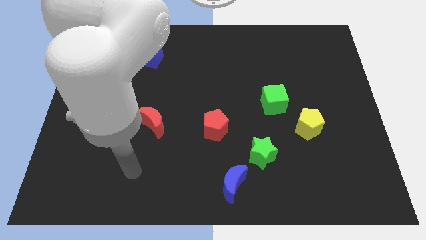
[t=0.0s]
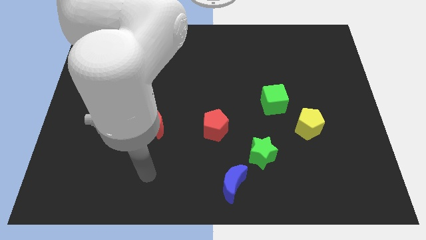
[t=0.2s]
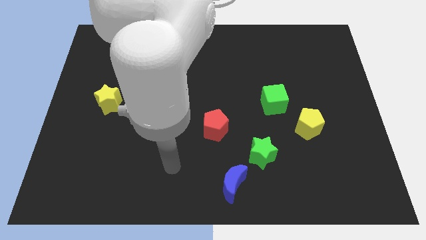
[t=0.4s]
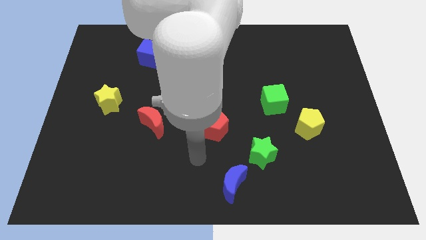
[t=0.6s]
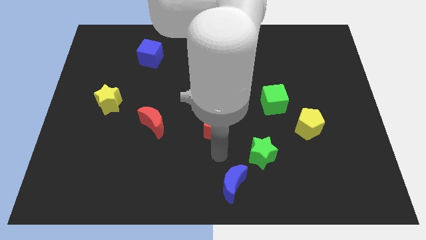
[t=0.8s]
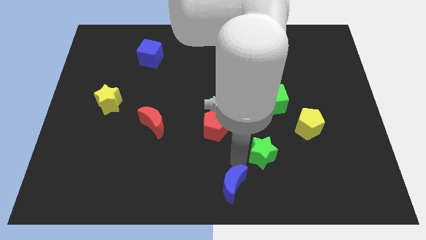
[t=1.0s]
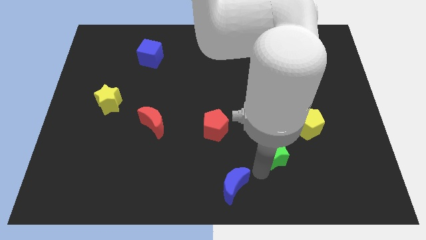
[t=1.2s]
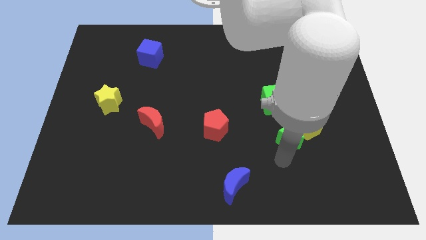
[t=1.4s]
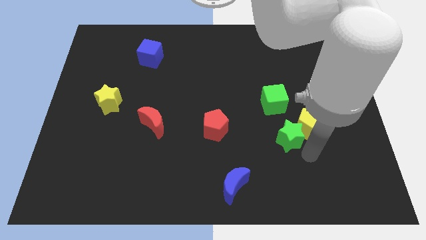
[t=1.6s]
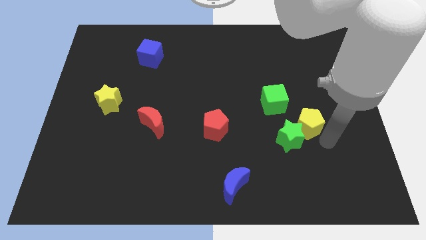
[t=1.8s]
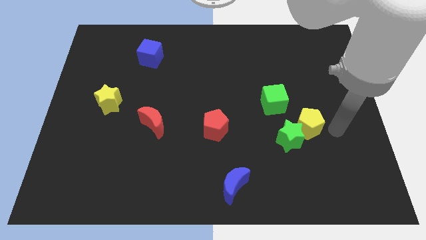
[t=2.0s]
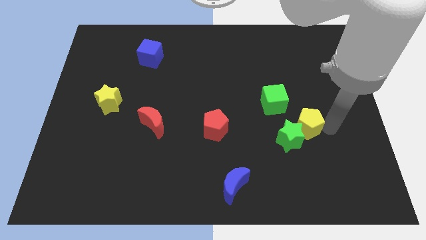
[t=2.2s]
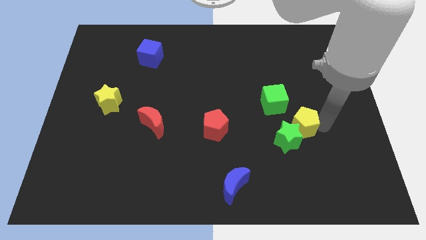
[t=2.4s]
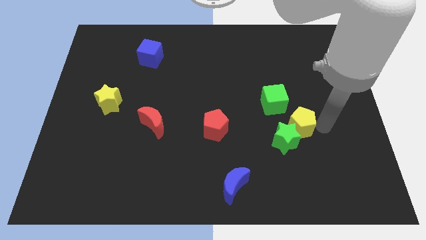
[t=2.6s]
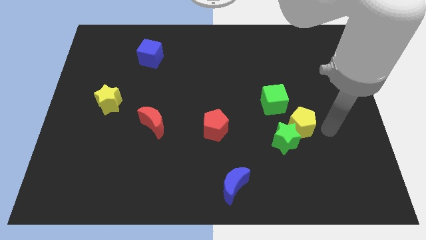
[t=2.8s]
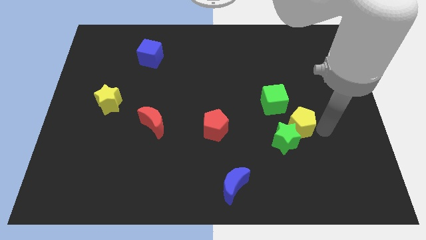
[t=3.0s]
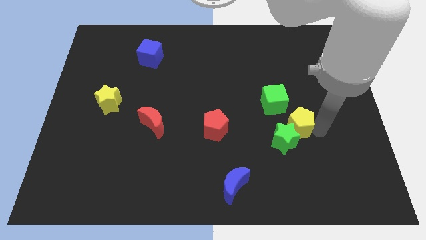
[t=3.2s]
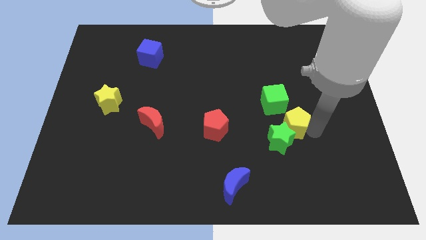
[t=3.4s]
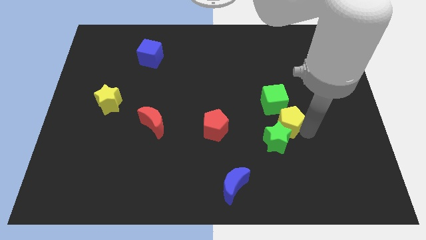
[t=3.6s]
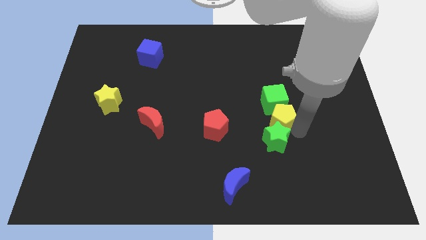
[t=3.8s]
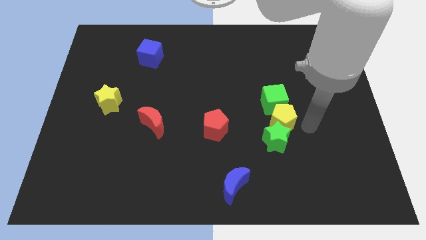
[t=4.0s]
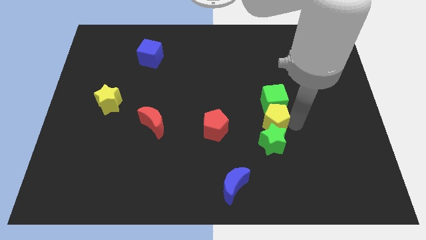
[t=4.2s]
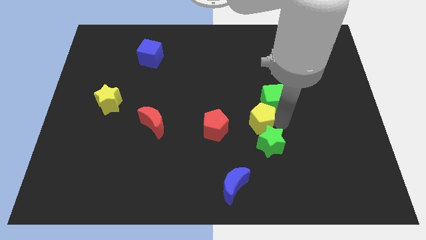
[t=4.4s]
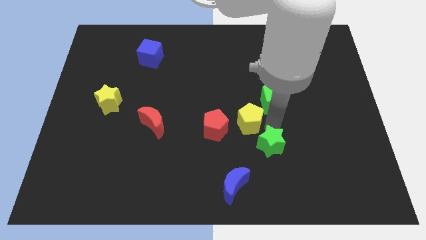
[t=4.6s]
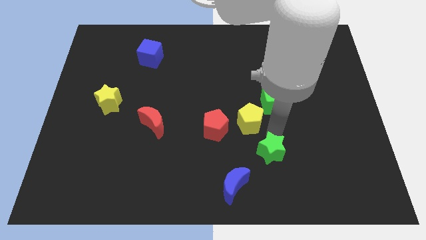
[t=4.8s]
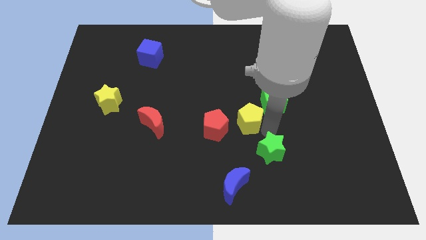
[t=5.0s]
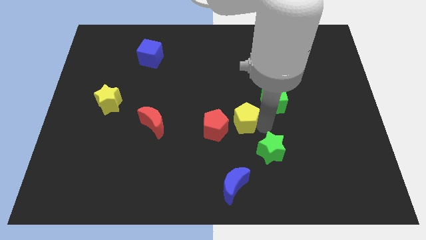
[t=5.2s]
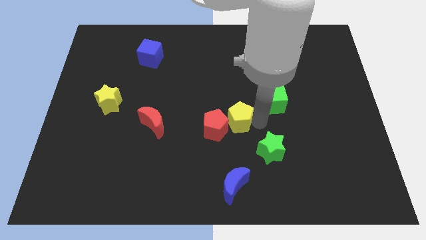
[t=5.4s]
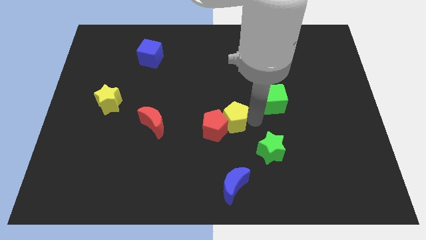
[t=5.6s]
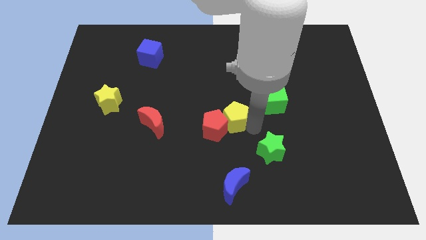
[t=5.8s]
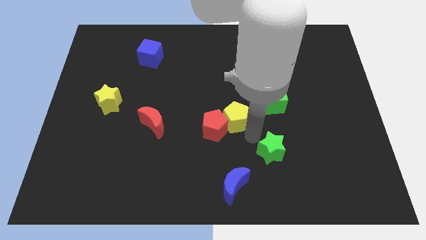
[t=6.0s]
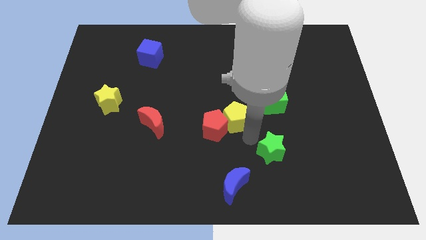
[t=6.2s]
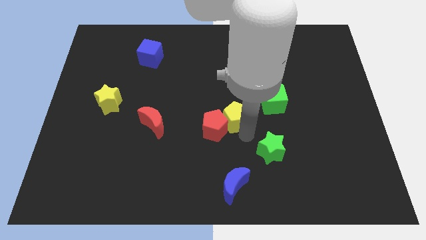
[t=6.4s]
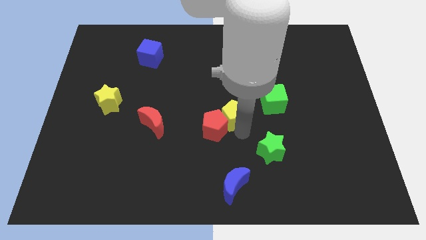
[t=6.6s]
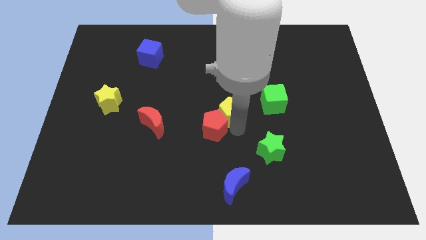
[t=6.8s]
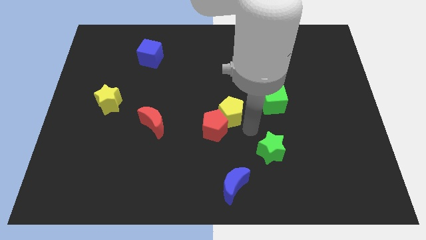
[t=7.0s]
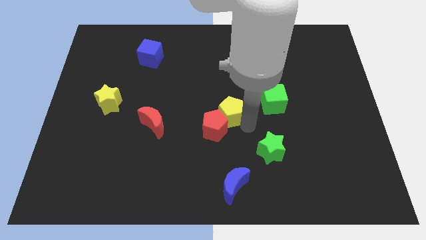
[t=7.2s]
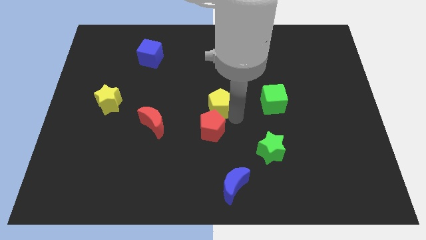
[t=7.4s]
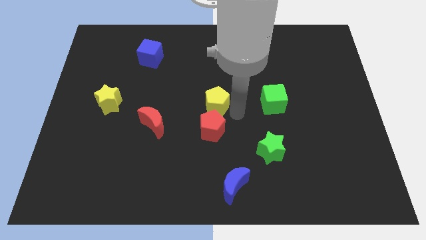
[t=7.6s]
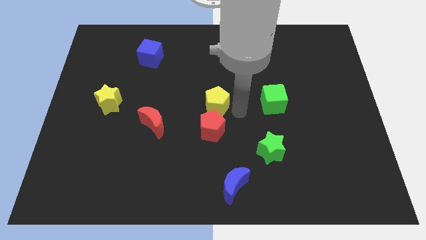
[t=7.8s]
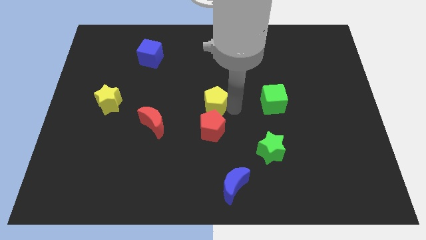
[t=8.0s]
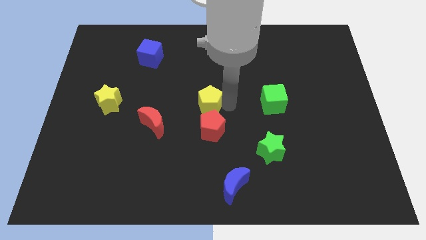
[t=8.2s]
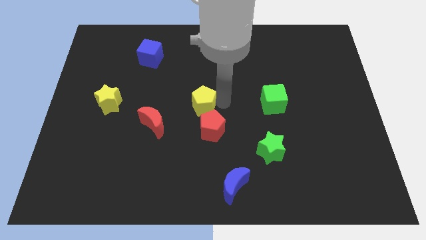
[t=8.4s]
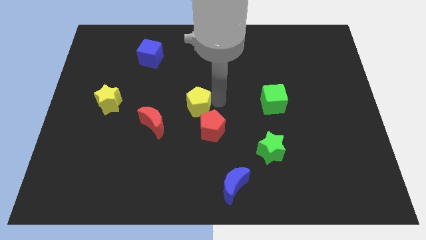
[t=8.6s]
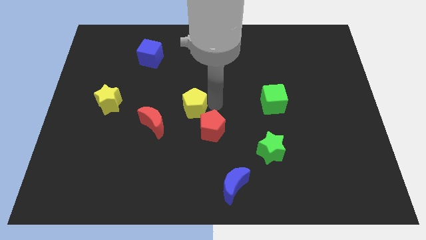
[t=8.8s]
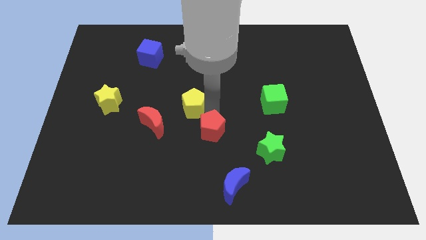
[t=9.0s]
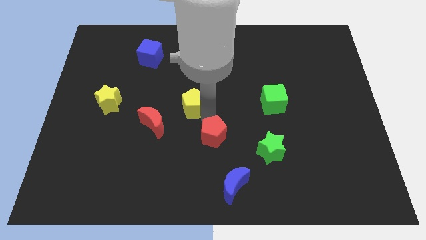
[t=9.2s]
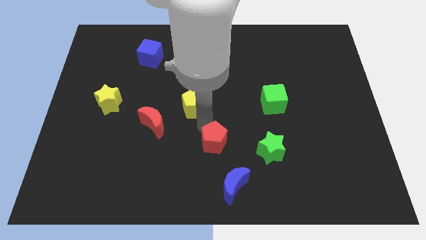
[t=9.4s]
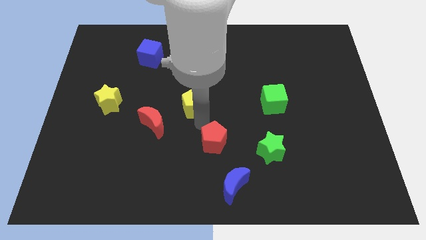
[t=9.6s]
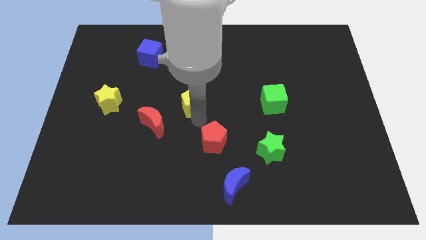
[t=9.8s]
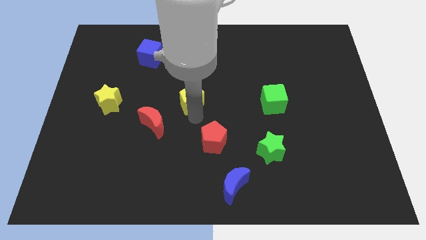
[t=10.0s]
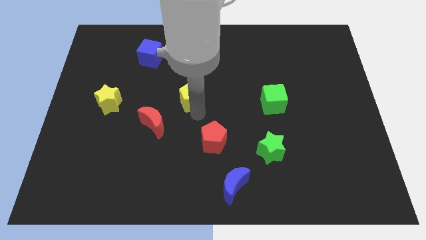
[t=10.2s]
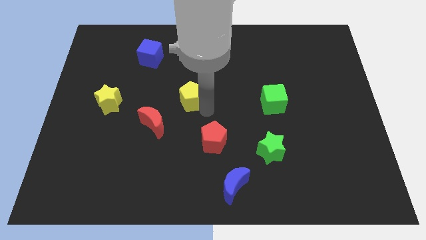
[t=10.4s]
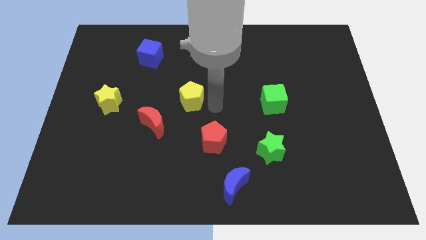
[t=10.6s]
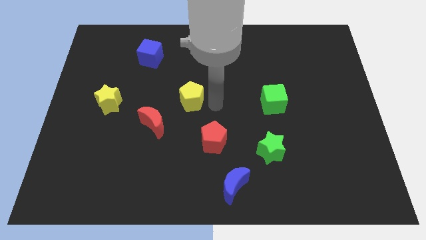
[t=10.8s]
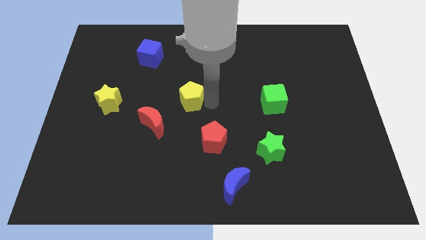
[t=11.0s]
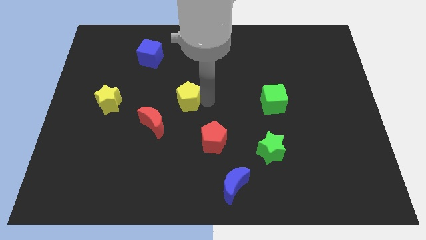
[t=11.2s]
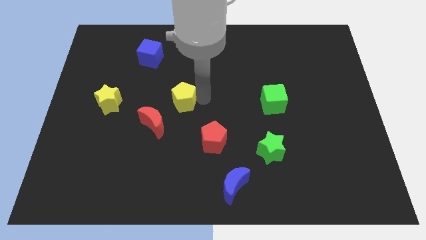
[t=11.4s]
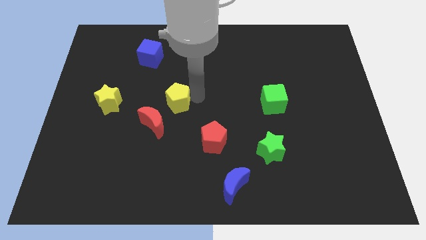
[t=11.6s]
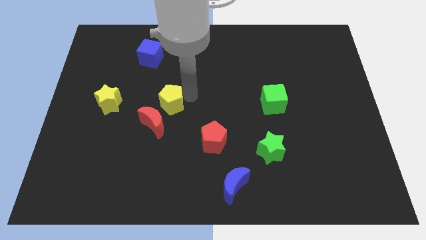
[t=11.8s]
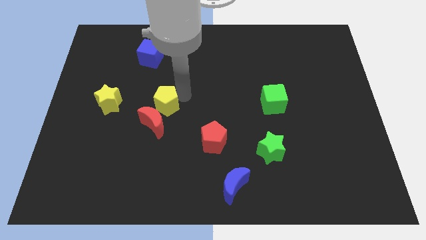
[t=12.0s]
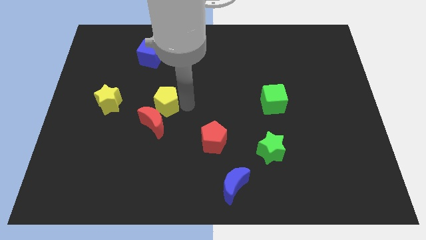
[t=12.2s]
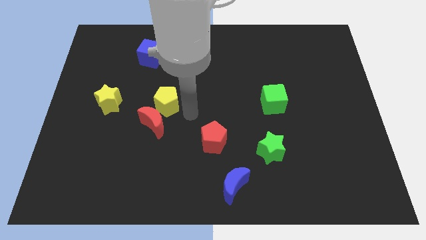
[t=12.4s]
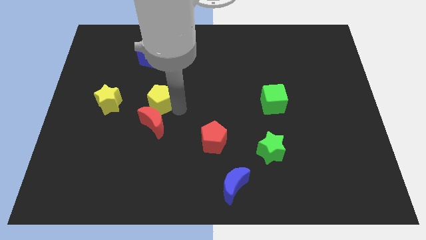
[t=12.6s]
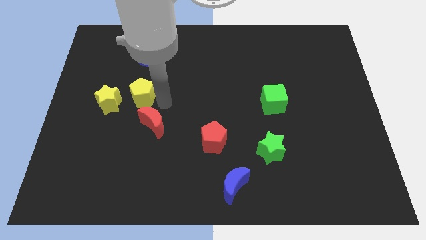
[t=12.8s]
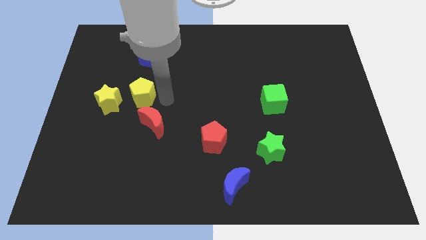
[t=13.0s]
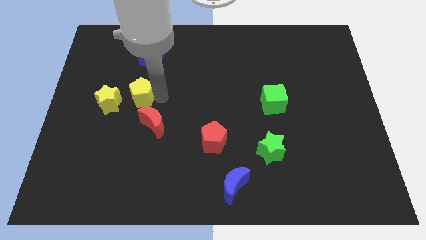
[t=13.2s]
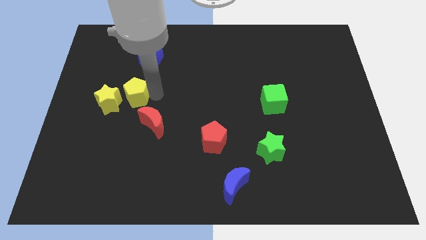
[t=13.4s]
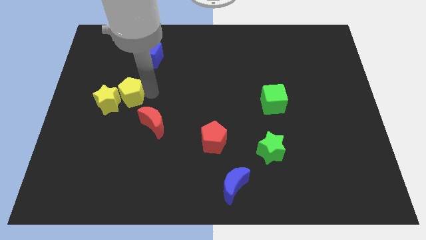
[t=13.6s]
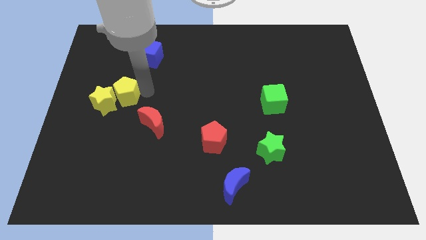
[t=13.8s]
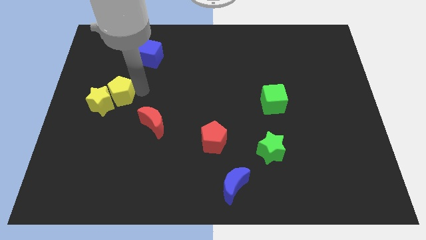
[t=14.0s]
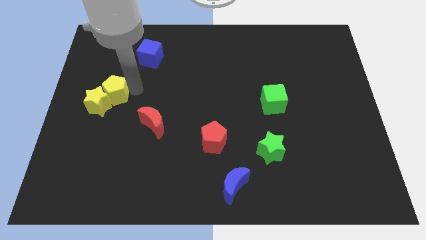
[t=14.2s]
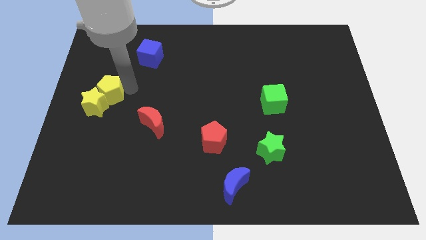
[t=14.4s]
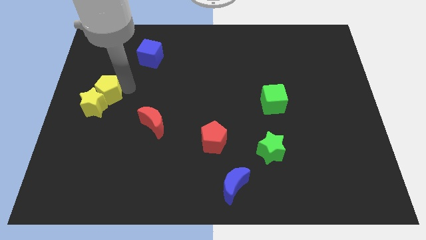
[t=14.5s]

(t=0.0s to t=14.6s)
slide the yellow pentagon to the left side of the board
